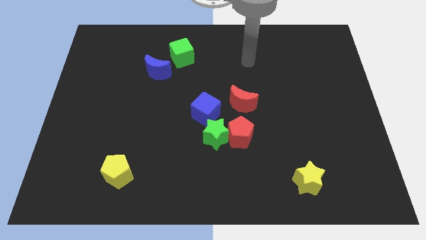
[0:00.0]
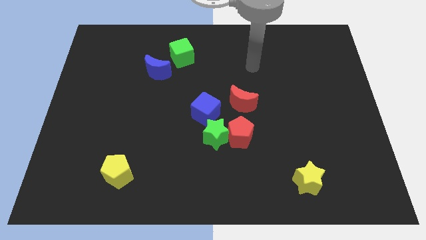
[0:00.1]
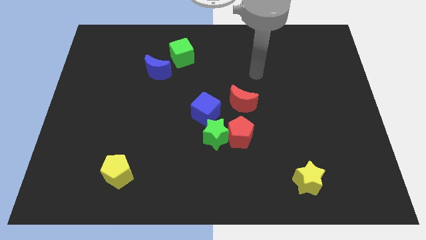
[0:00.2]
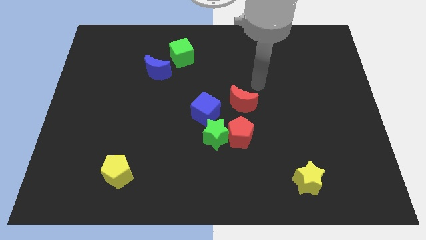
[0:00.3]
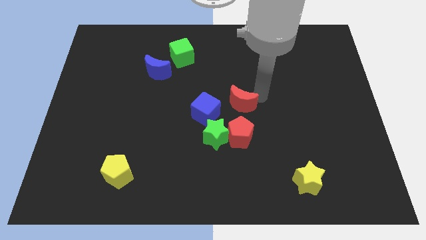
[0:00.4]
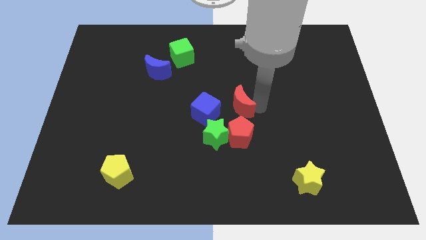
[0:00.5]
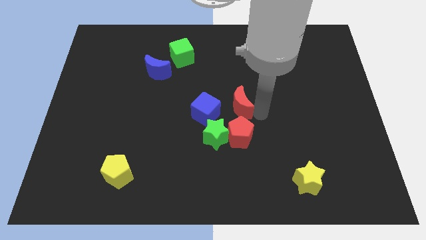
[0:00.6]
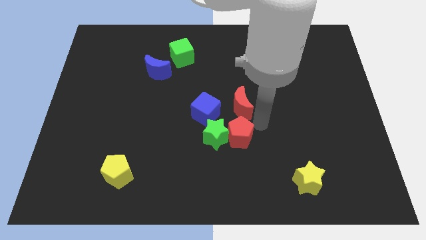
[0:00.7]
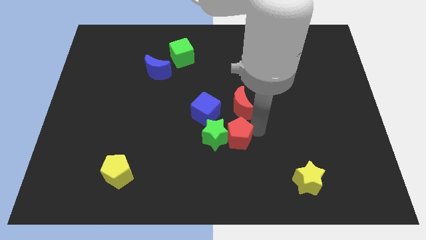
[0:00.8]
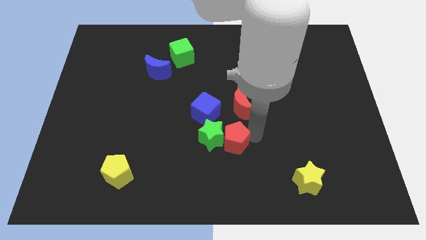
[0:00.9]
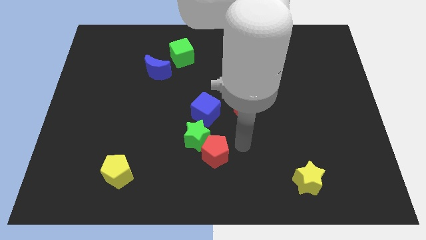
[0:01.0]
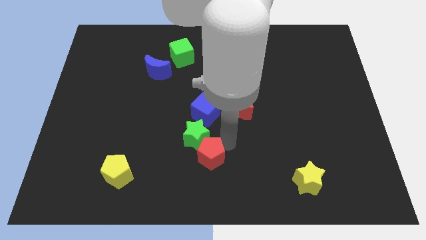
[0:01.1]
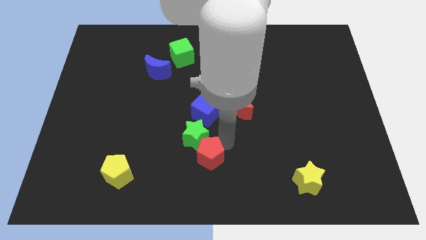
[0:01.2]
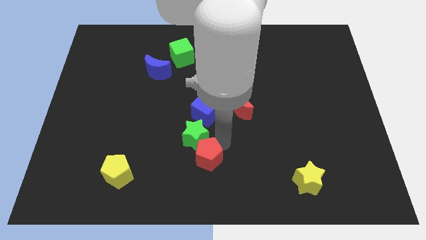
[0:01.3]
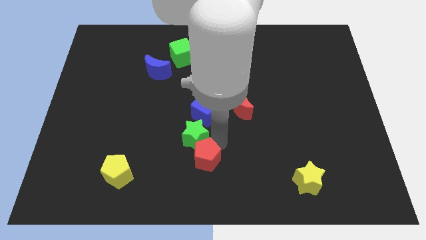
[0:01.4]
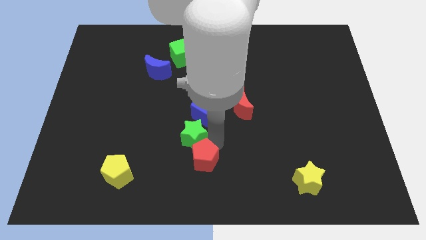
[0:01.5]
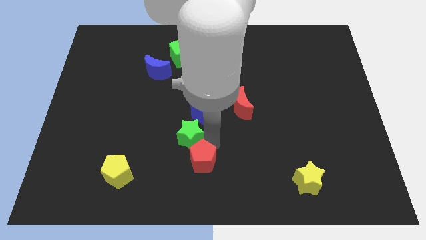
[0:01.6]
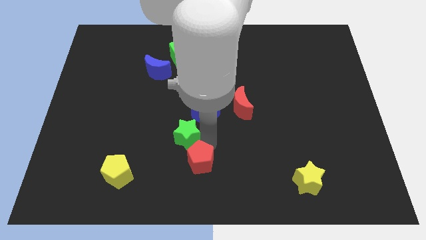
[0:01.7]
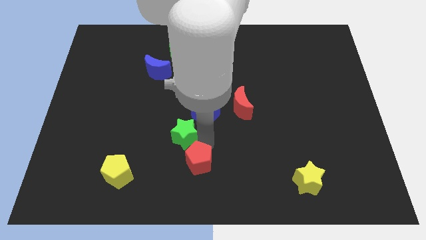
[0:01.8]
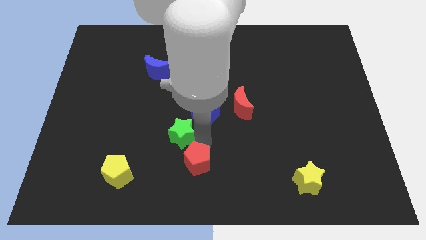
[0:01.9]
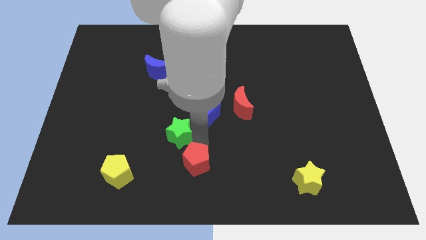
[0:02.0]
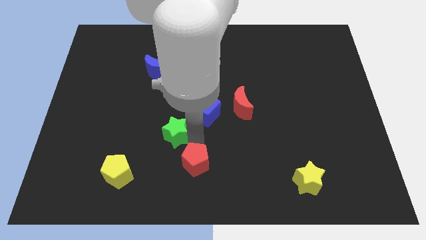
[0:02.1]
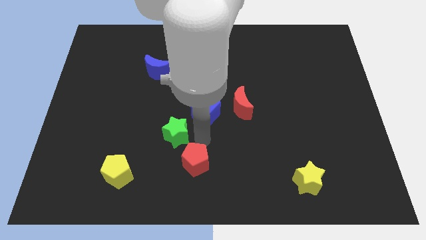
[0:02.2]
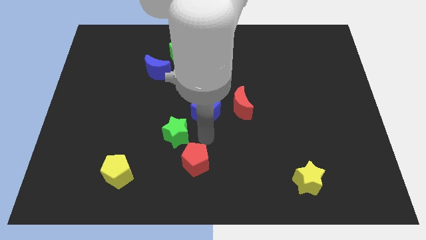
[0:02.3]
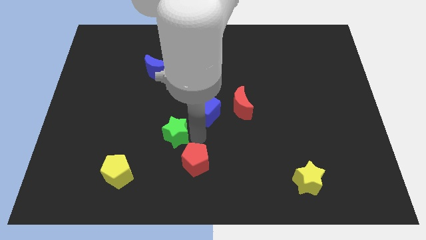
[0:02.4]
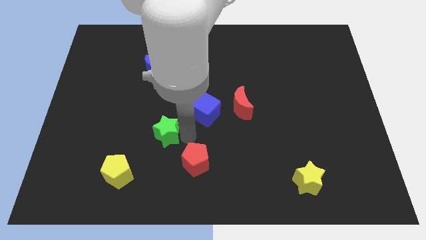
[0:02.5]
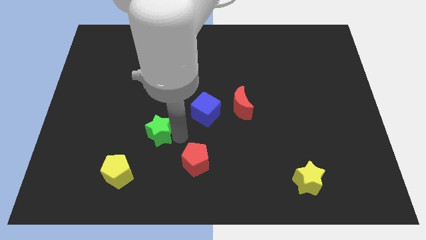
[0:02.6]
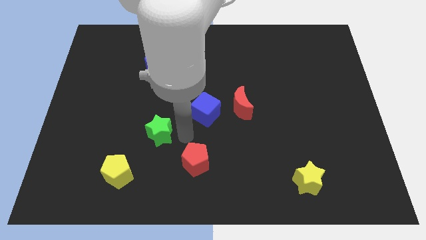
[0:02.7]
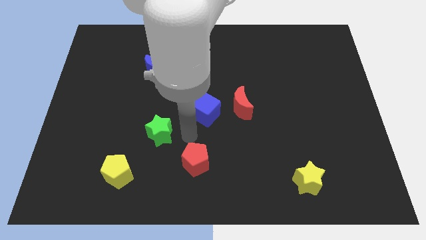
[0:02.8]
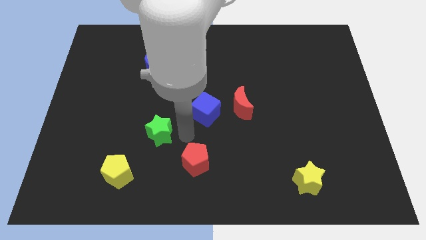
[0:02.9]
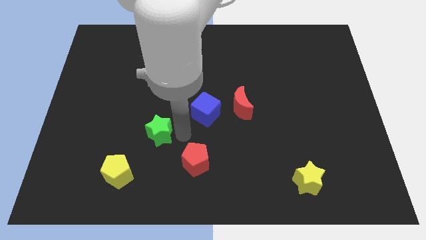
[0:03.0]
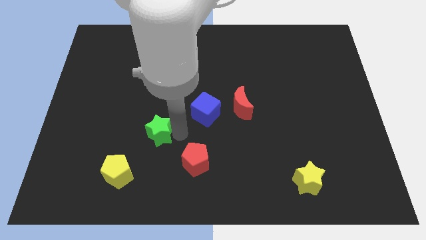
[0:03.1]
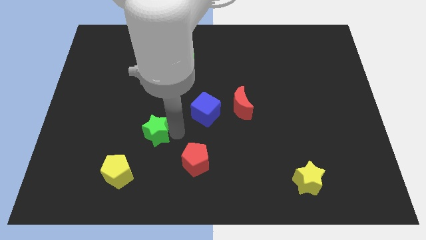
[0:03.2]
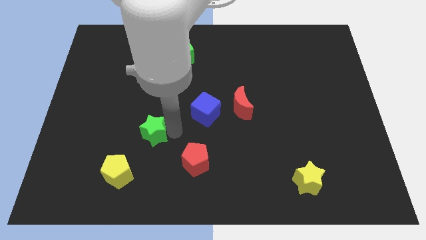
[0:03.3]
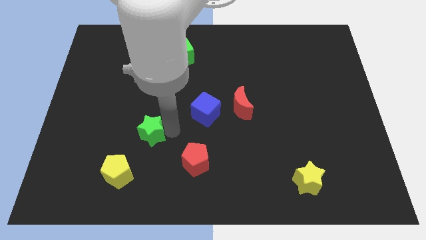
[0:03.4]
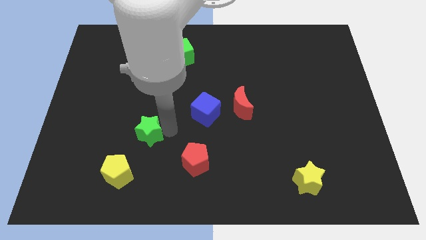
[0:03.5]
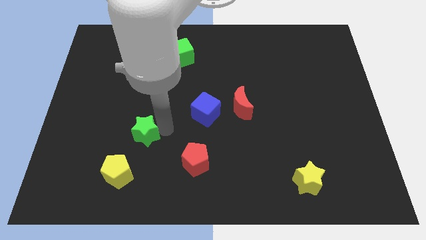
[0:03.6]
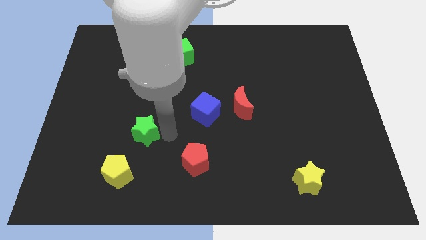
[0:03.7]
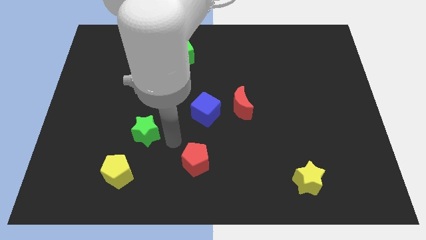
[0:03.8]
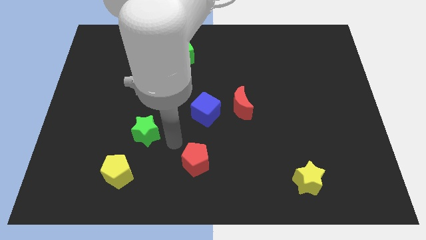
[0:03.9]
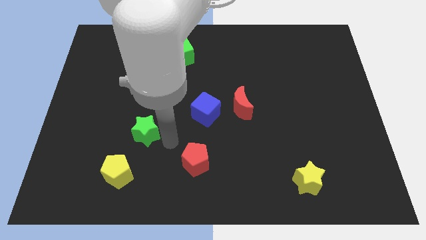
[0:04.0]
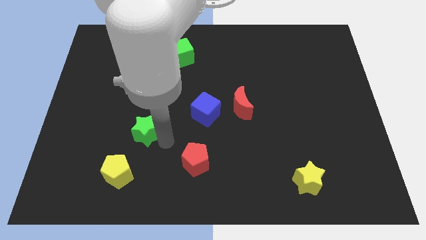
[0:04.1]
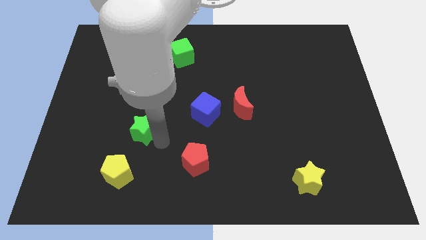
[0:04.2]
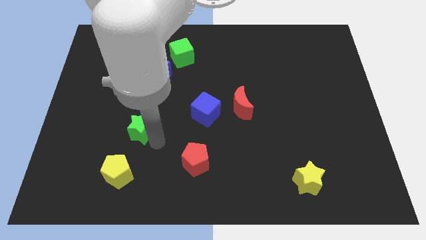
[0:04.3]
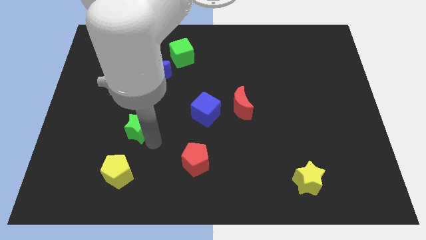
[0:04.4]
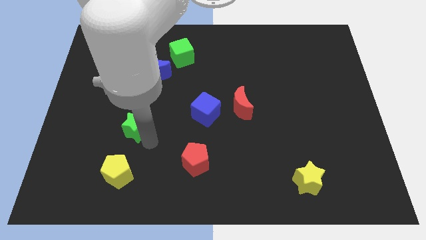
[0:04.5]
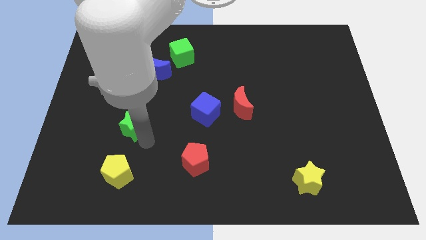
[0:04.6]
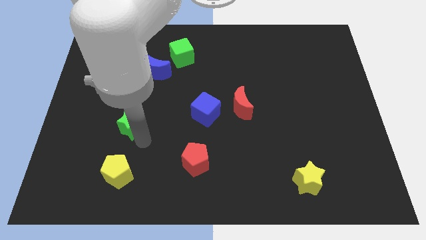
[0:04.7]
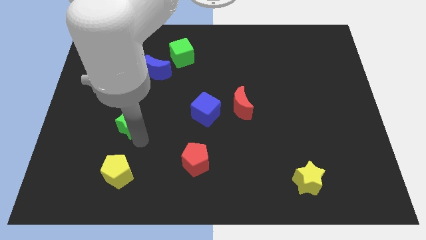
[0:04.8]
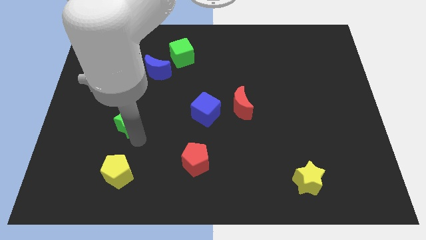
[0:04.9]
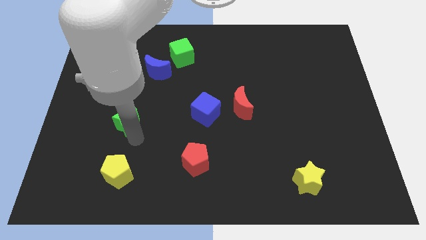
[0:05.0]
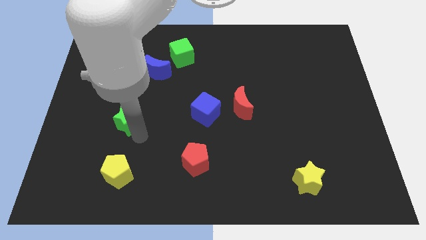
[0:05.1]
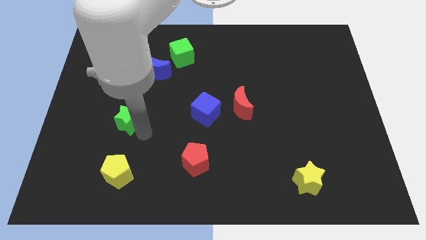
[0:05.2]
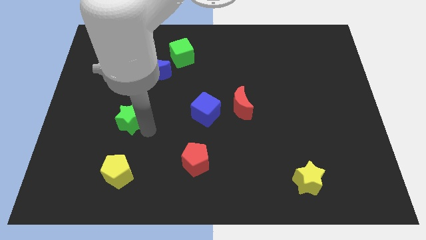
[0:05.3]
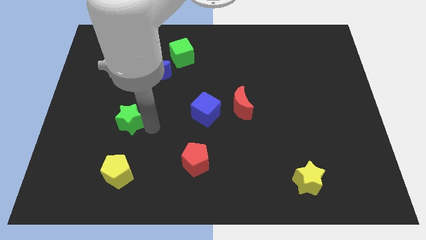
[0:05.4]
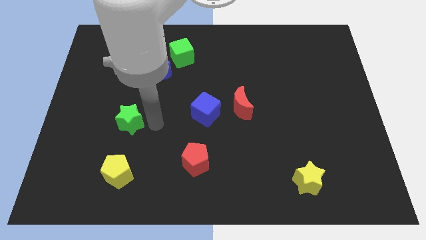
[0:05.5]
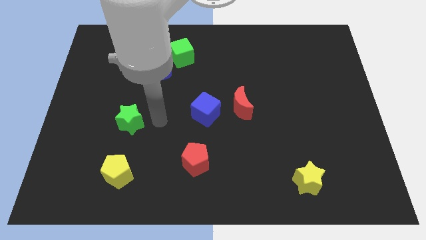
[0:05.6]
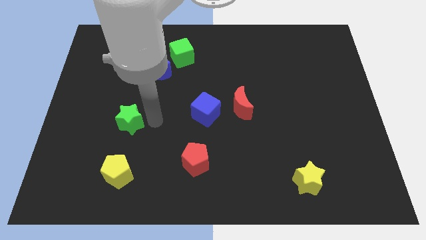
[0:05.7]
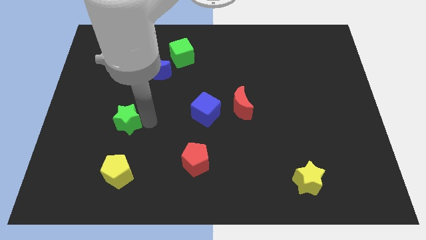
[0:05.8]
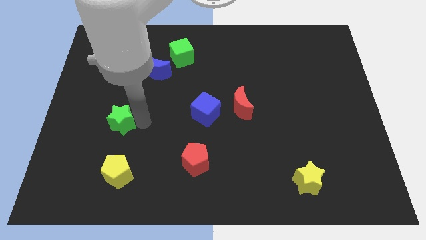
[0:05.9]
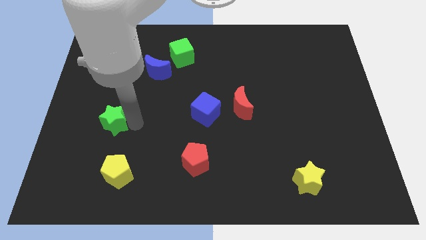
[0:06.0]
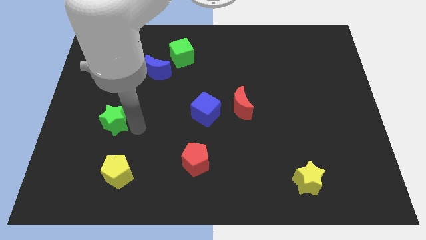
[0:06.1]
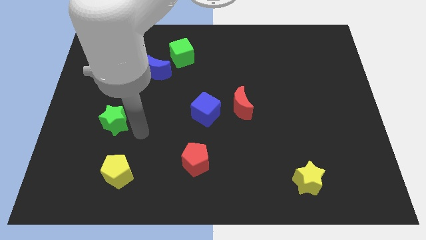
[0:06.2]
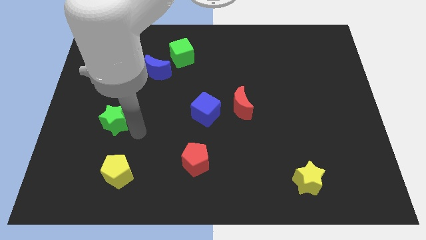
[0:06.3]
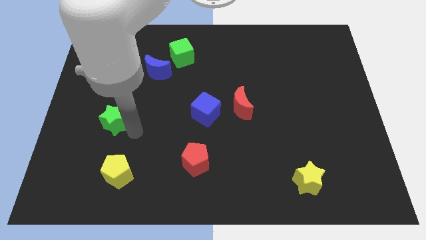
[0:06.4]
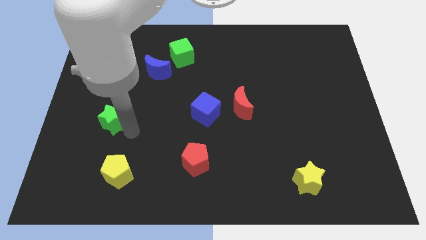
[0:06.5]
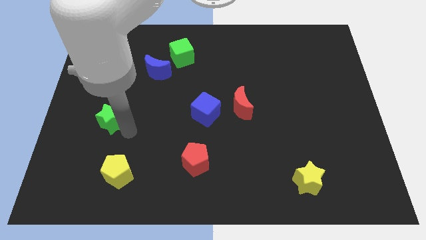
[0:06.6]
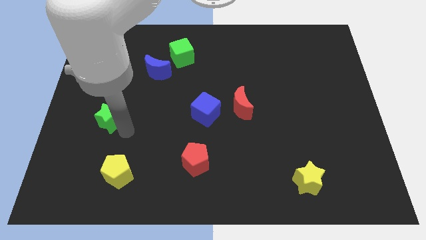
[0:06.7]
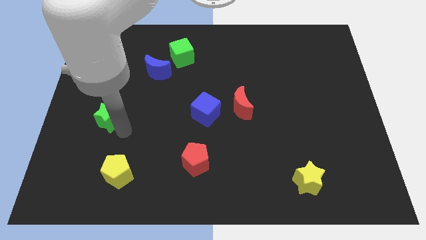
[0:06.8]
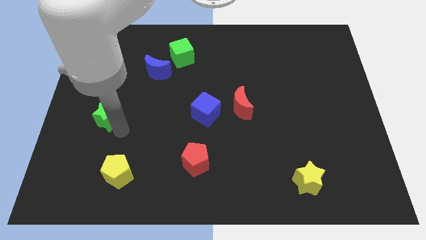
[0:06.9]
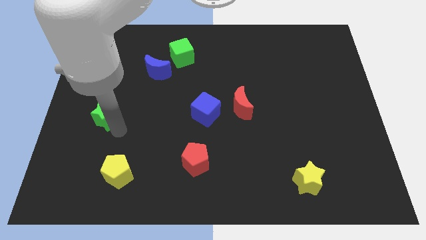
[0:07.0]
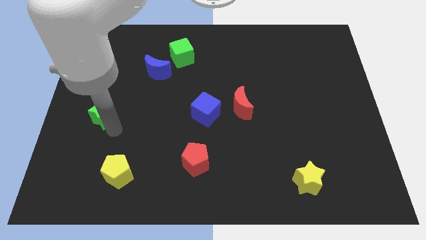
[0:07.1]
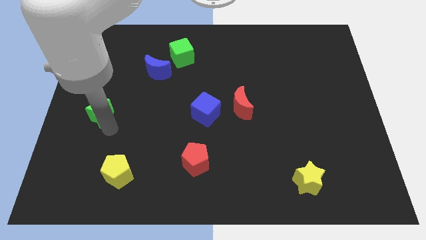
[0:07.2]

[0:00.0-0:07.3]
put the green star to the center left
